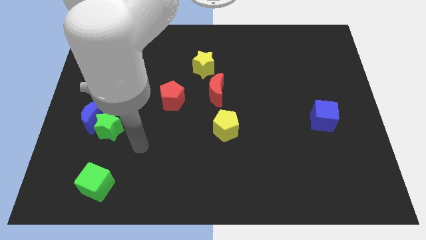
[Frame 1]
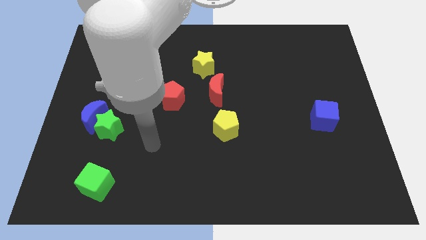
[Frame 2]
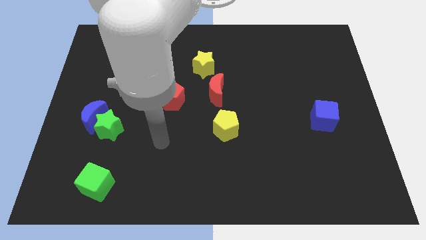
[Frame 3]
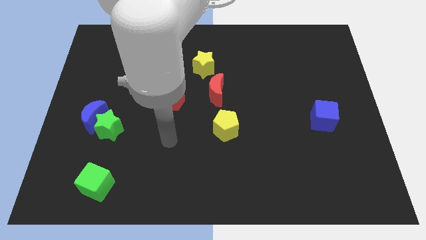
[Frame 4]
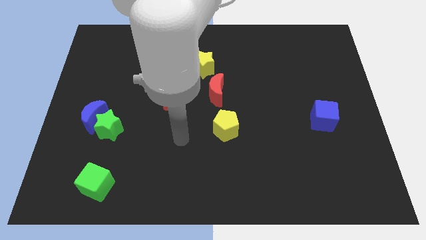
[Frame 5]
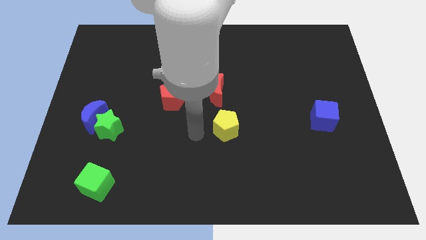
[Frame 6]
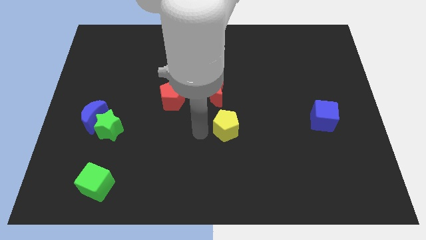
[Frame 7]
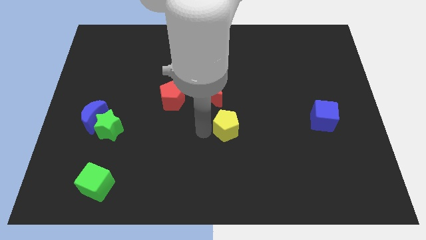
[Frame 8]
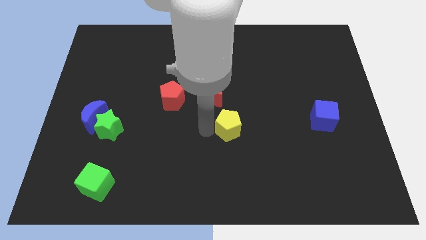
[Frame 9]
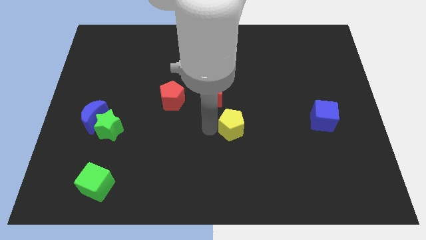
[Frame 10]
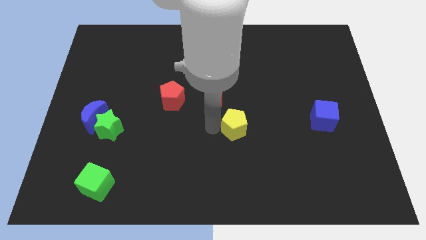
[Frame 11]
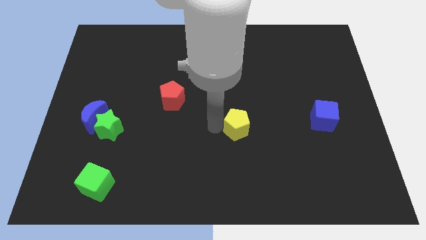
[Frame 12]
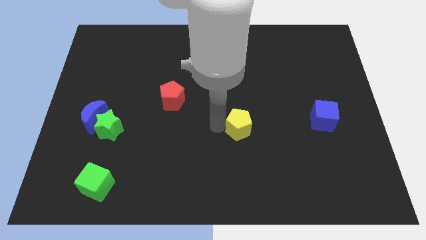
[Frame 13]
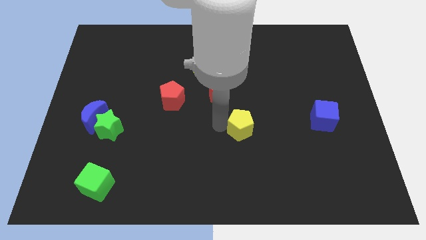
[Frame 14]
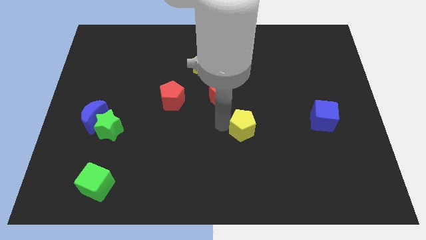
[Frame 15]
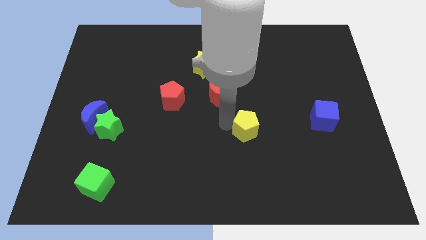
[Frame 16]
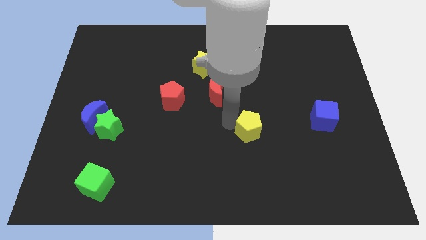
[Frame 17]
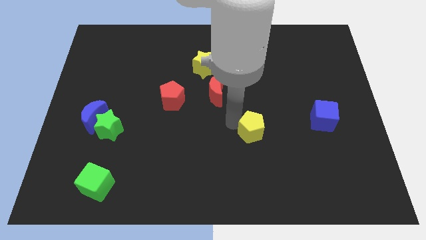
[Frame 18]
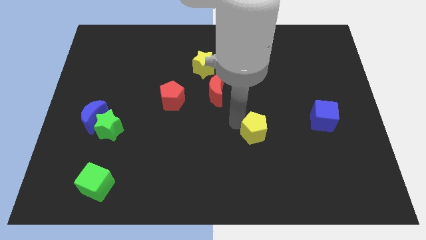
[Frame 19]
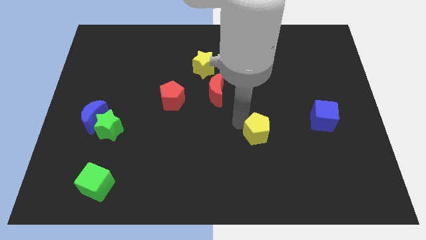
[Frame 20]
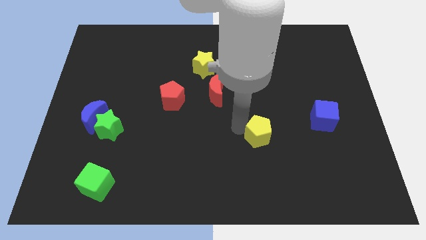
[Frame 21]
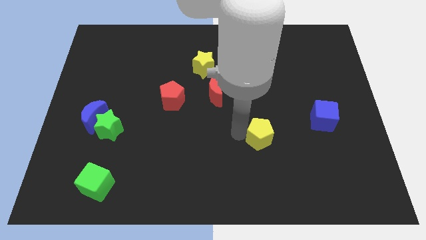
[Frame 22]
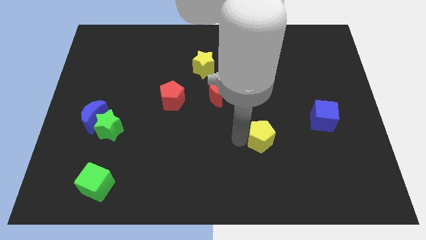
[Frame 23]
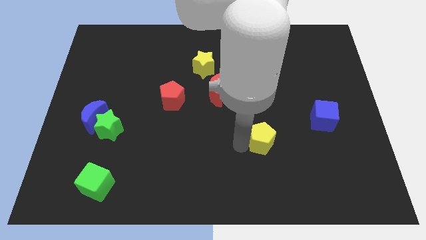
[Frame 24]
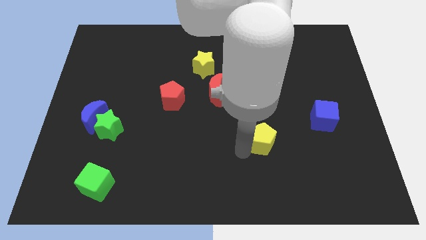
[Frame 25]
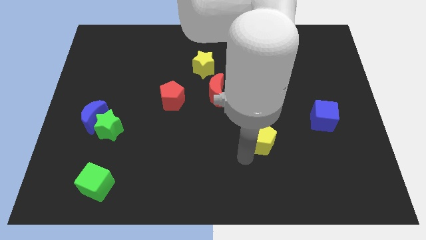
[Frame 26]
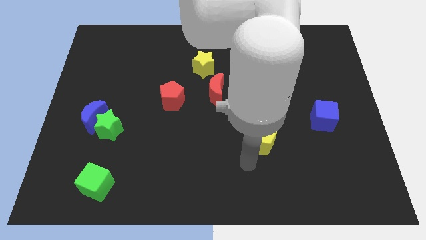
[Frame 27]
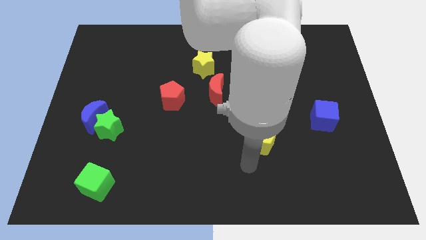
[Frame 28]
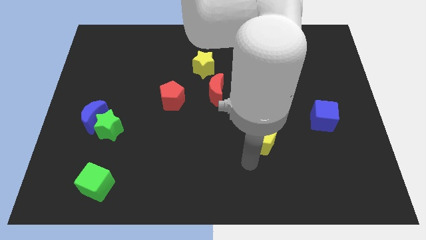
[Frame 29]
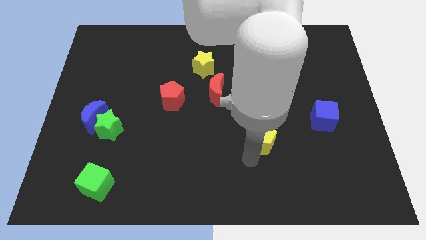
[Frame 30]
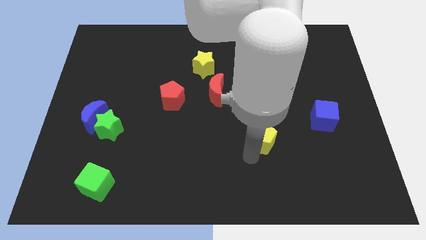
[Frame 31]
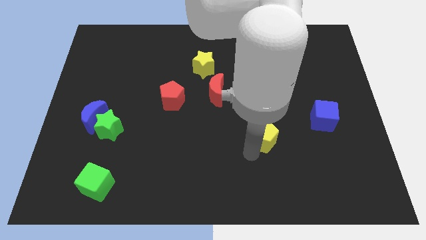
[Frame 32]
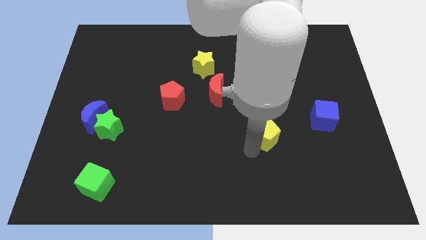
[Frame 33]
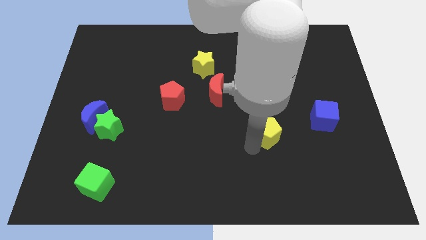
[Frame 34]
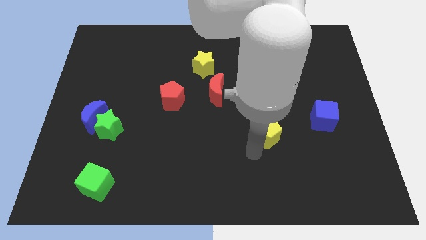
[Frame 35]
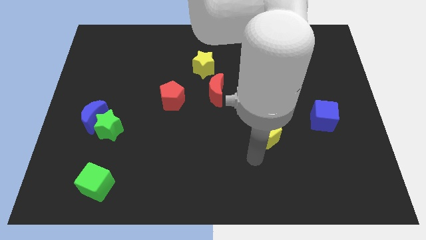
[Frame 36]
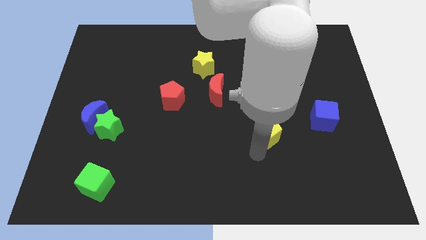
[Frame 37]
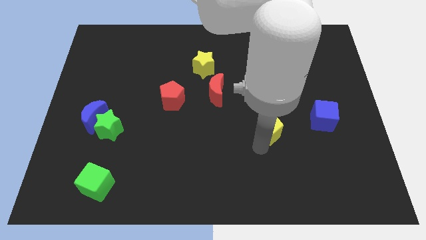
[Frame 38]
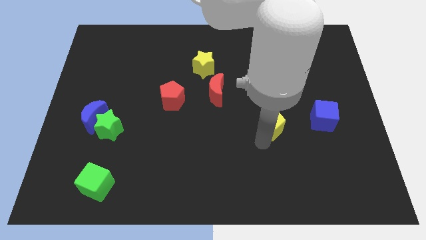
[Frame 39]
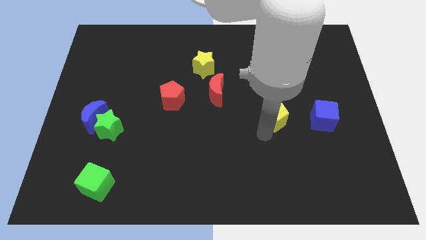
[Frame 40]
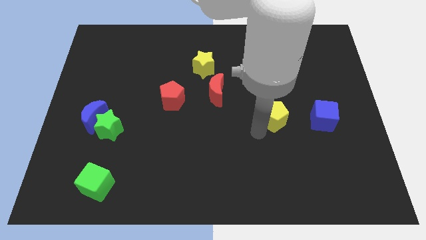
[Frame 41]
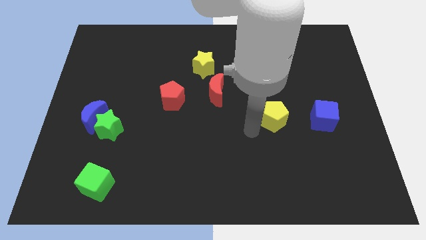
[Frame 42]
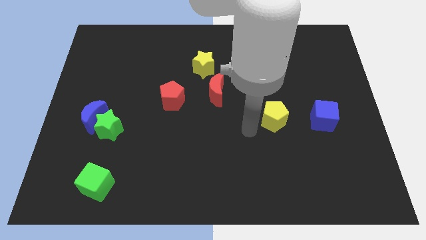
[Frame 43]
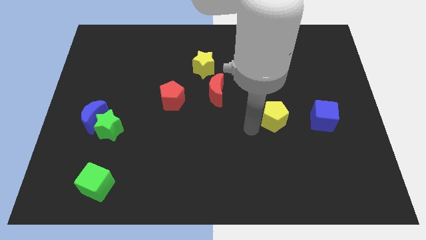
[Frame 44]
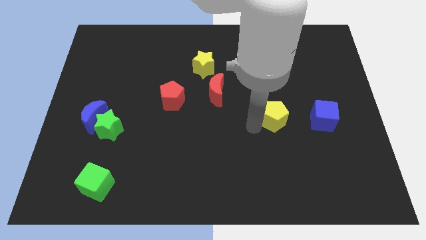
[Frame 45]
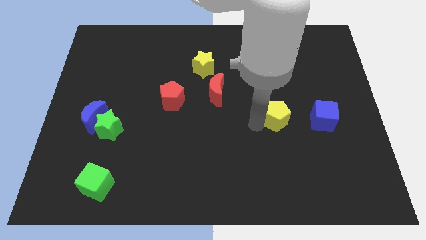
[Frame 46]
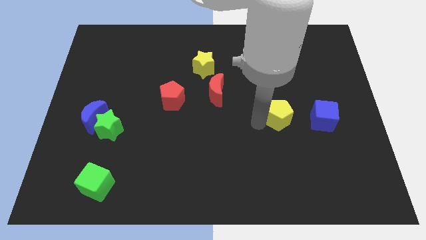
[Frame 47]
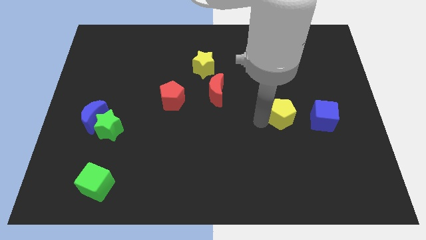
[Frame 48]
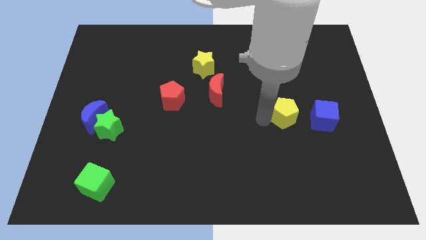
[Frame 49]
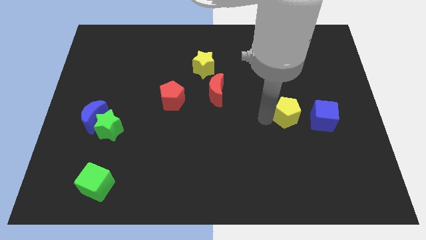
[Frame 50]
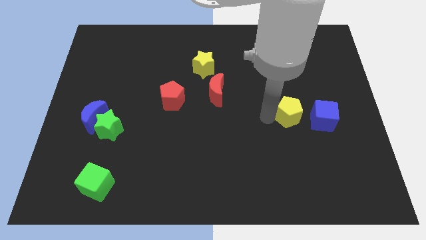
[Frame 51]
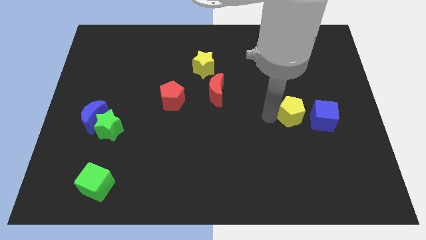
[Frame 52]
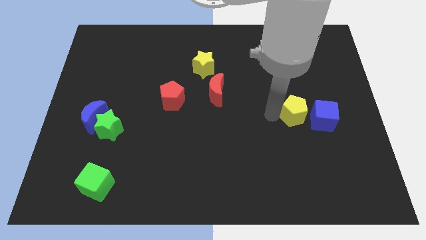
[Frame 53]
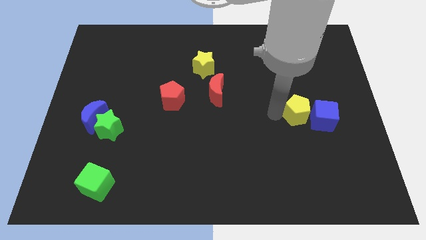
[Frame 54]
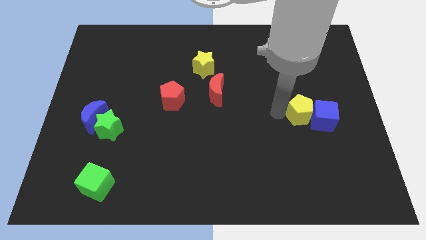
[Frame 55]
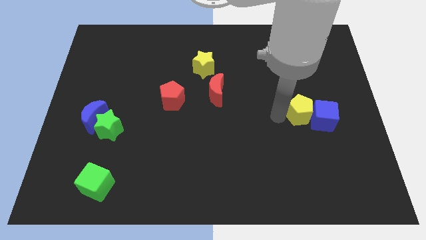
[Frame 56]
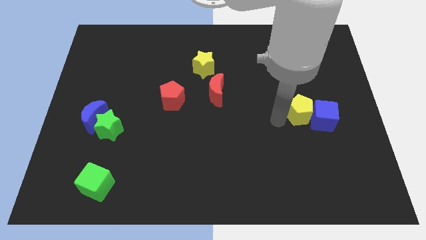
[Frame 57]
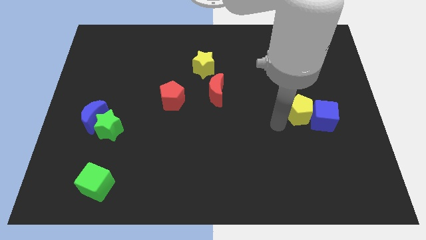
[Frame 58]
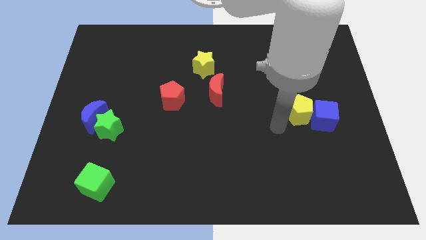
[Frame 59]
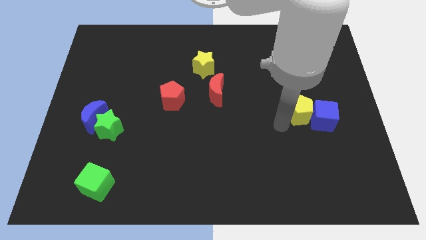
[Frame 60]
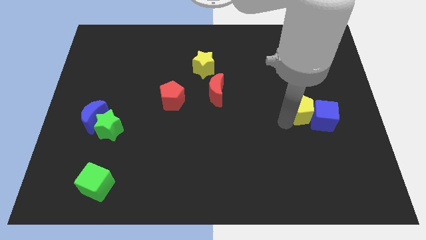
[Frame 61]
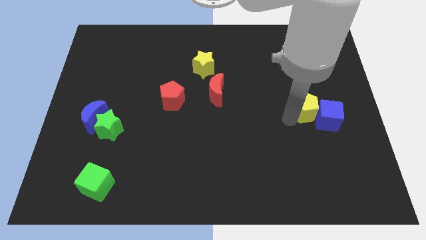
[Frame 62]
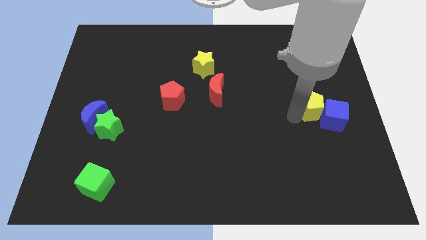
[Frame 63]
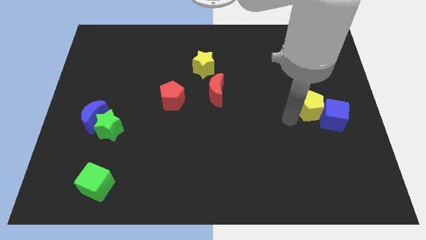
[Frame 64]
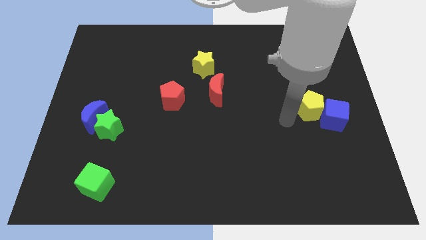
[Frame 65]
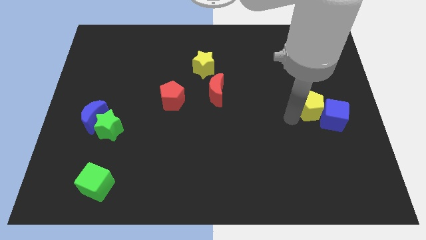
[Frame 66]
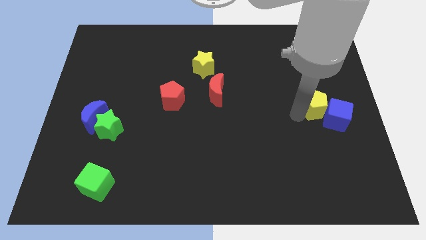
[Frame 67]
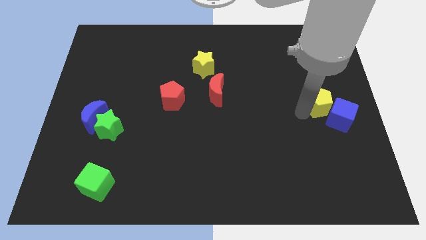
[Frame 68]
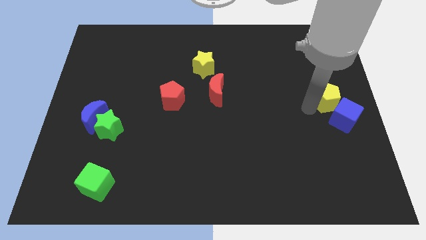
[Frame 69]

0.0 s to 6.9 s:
put the yellow pentagon to the right side
